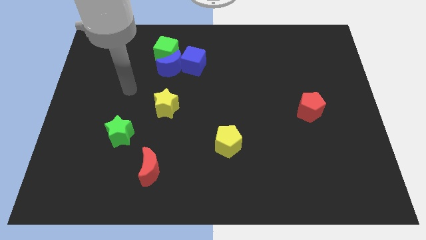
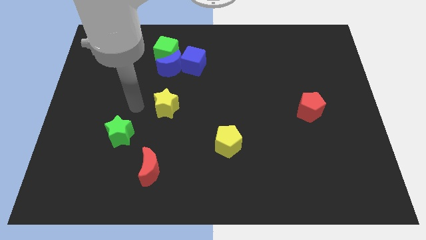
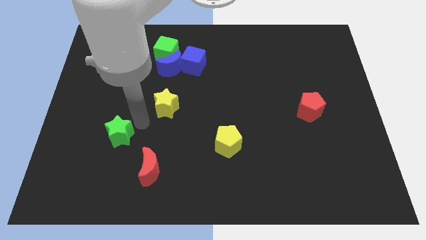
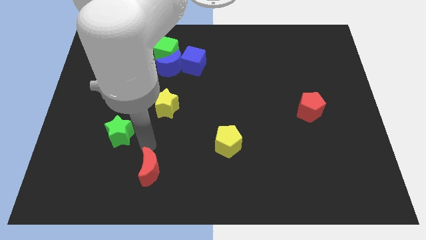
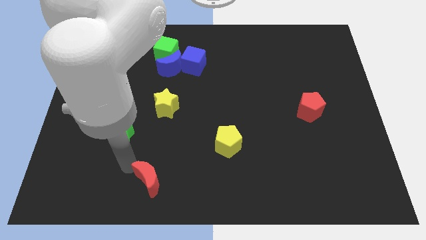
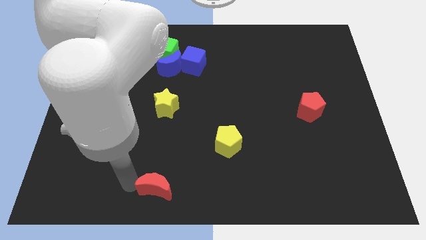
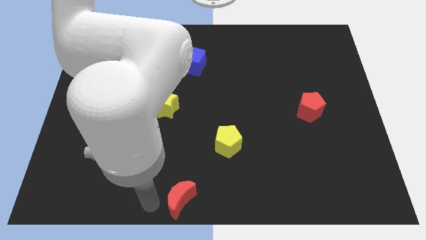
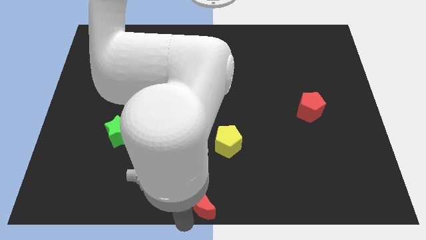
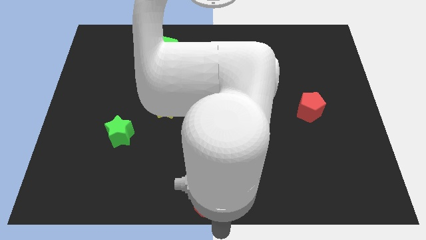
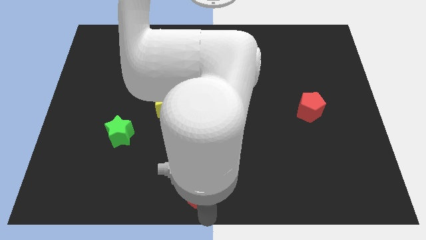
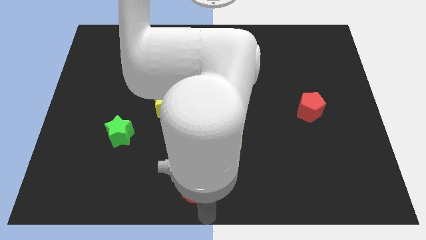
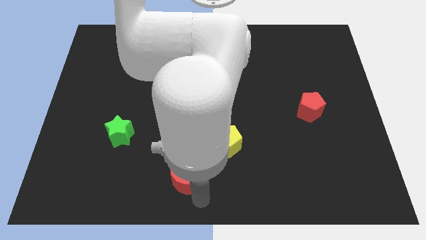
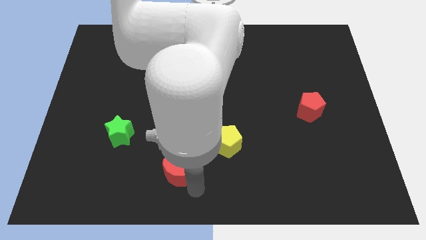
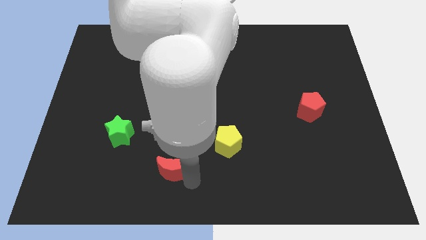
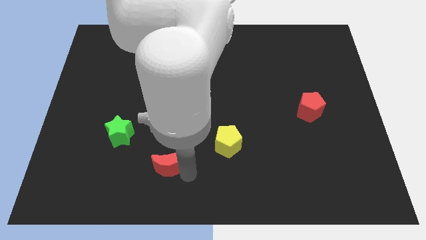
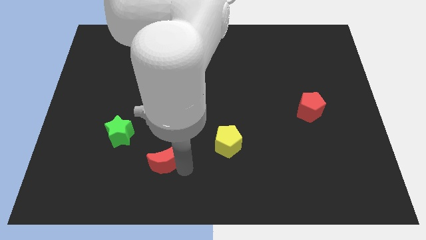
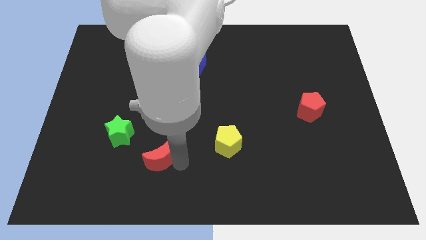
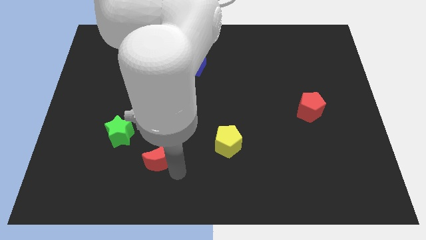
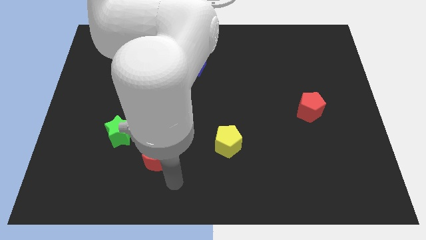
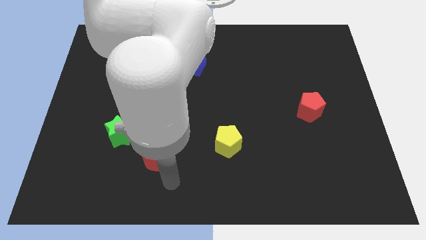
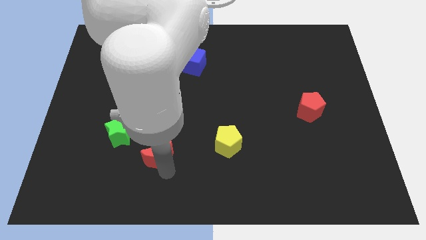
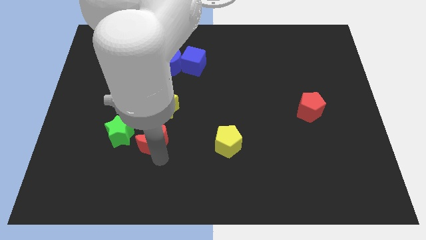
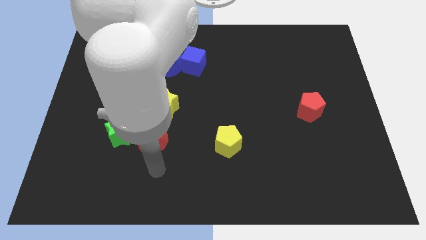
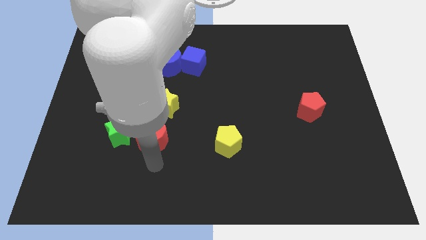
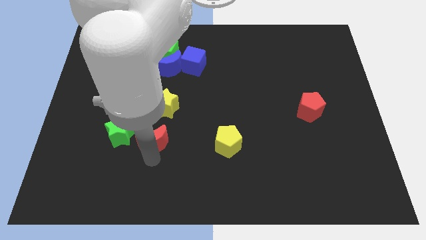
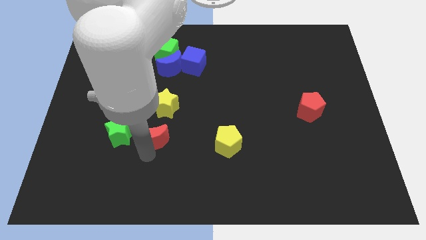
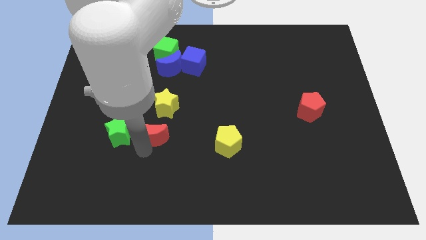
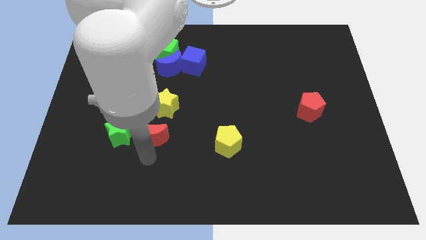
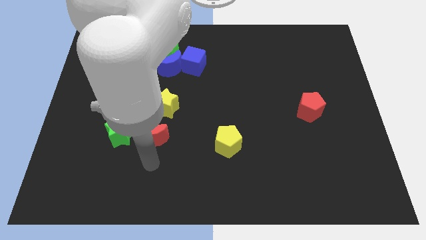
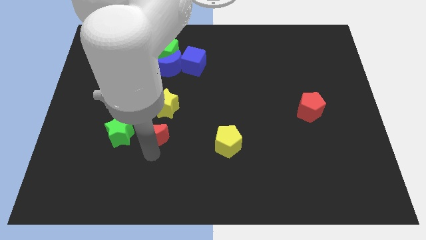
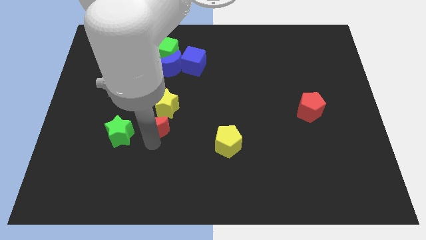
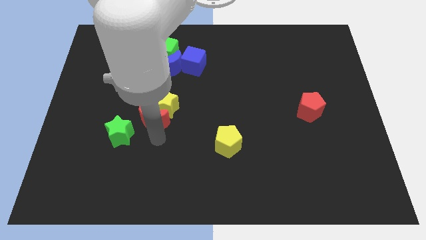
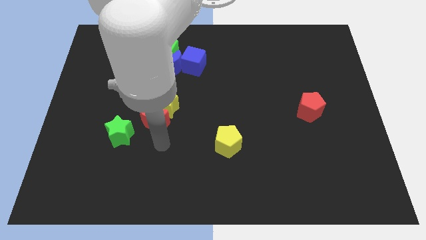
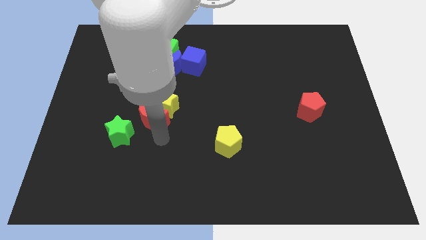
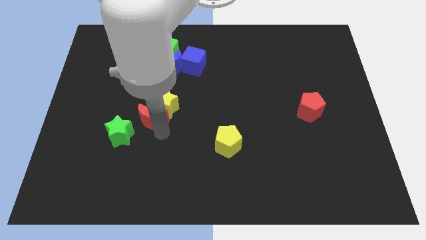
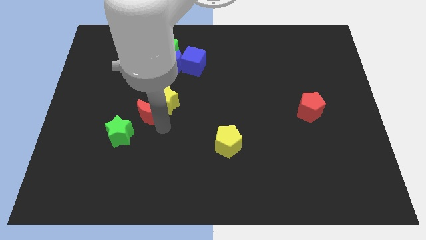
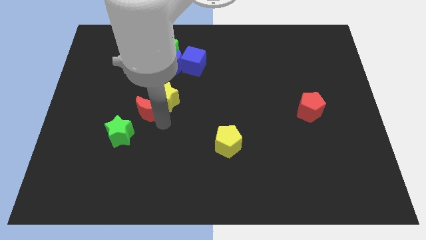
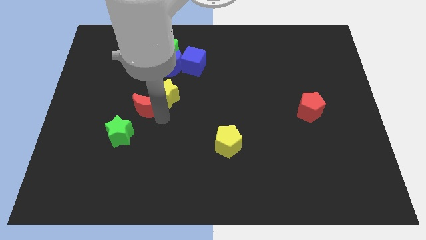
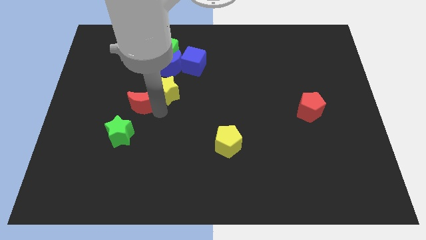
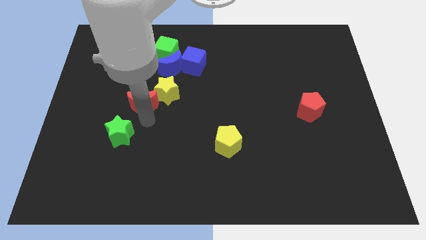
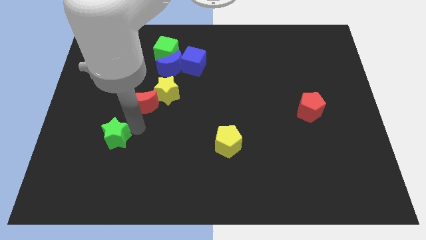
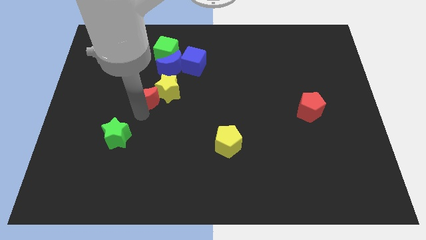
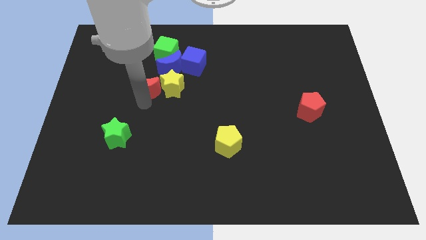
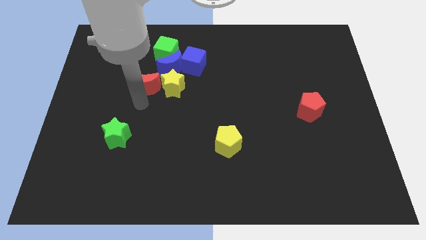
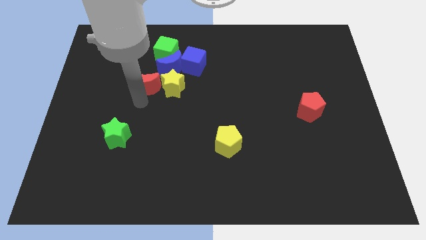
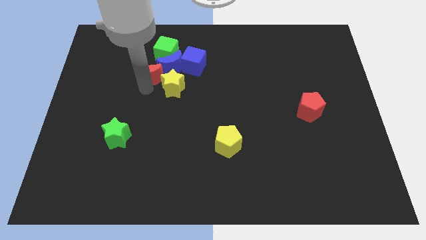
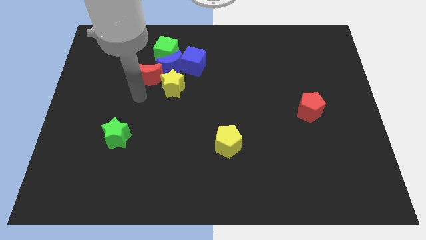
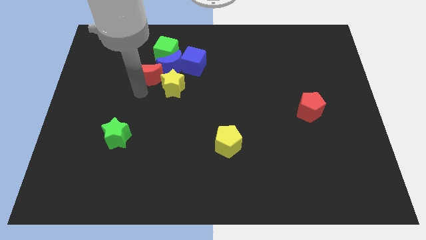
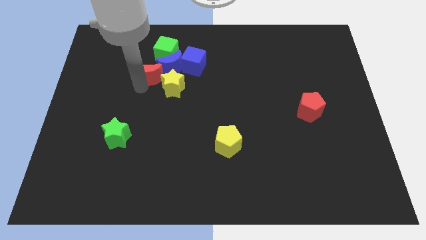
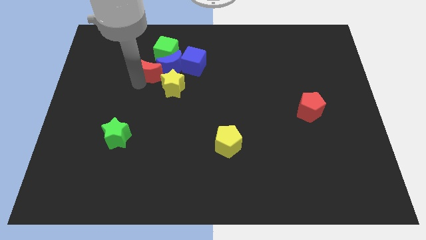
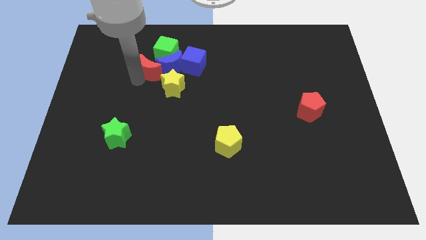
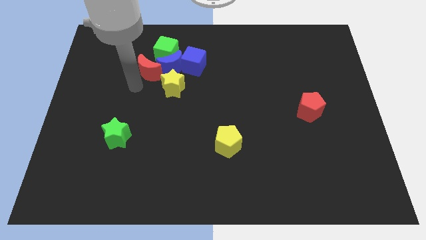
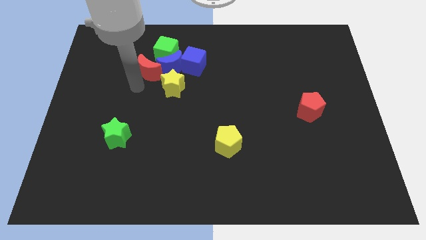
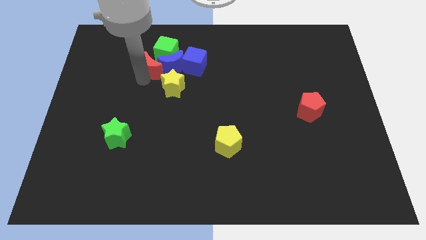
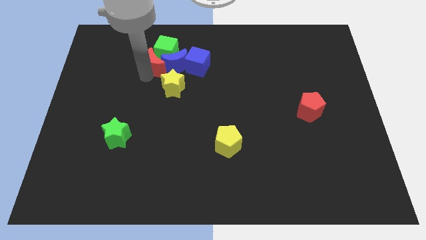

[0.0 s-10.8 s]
push the red moon next to the green cube

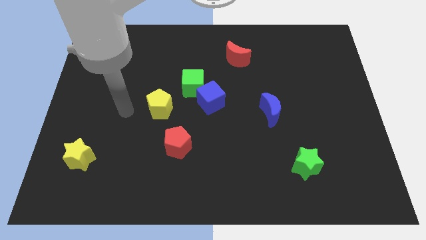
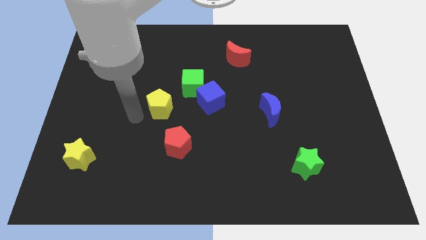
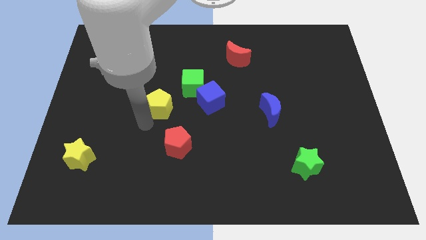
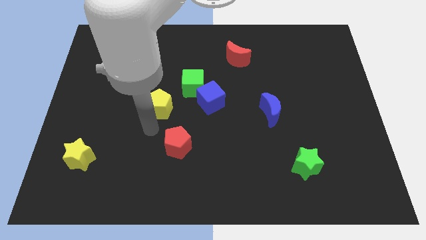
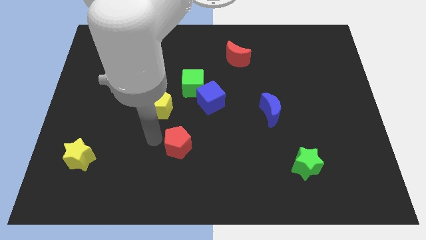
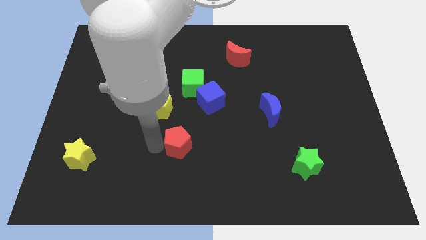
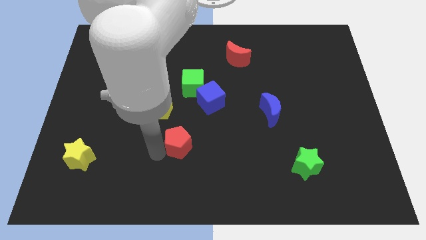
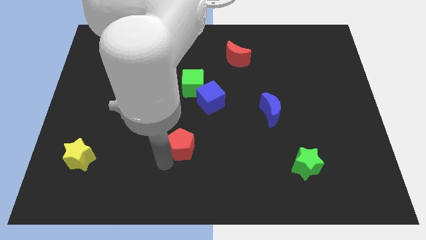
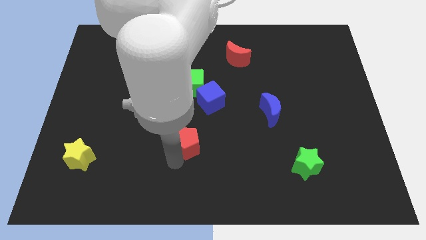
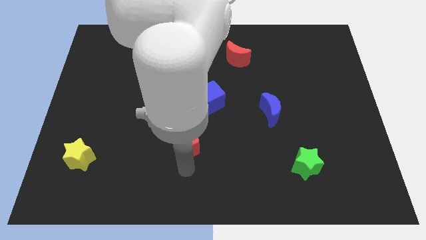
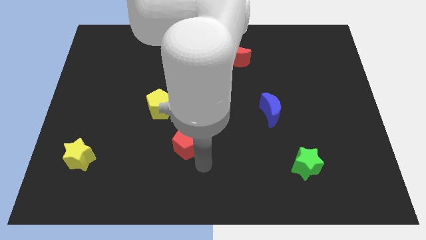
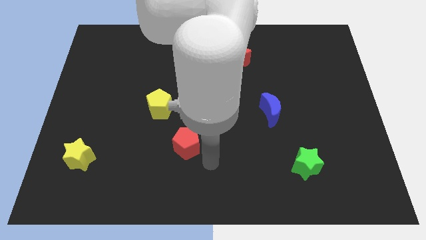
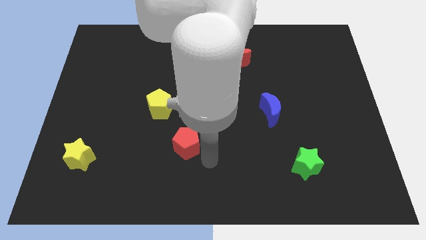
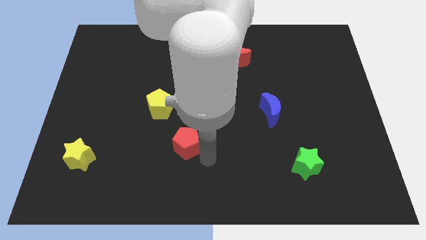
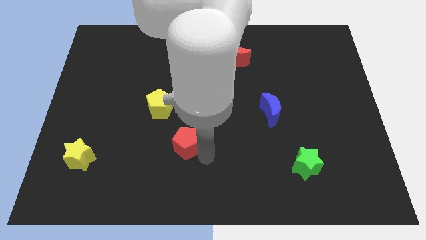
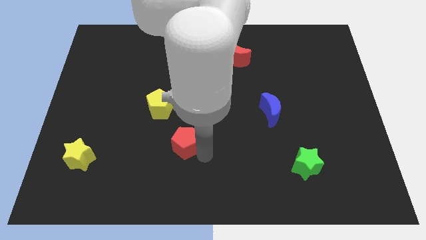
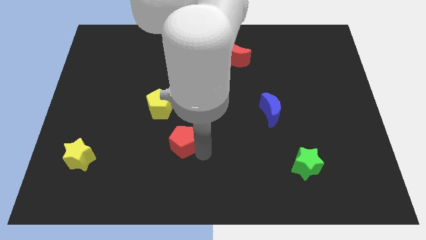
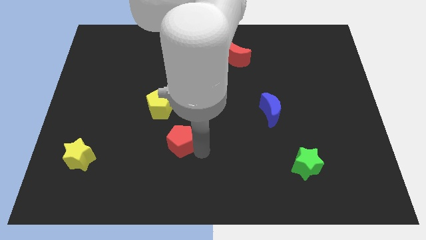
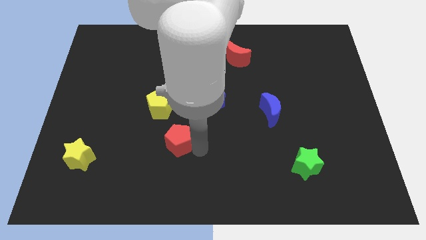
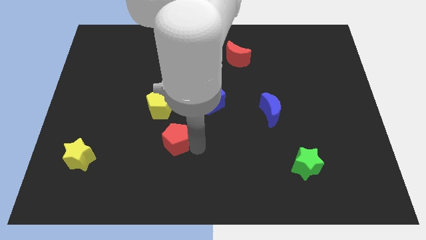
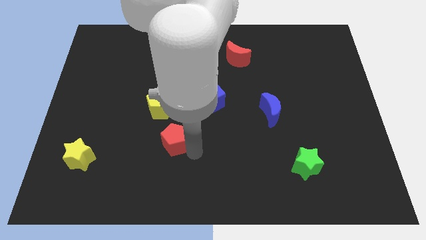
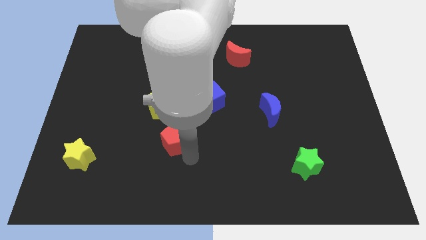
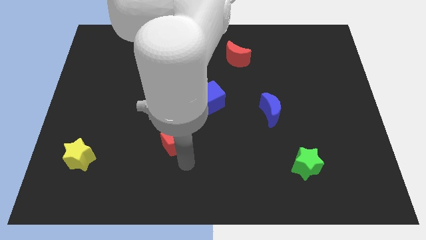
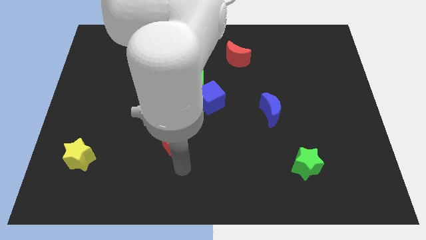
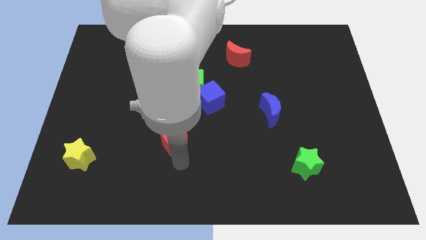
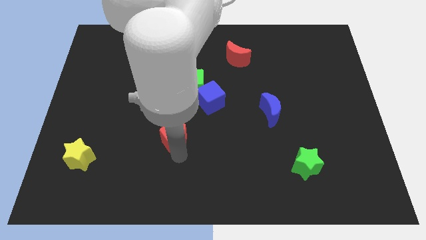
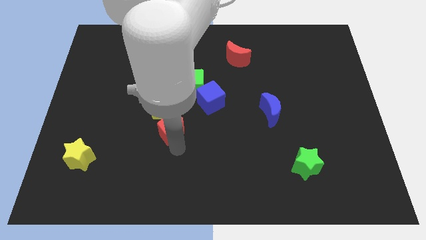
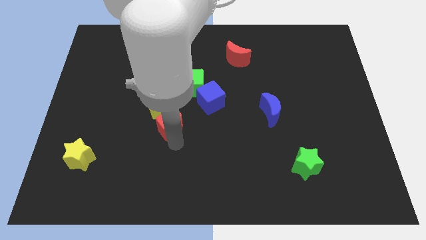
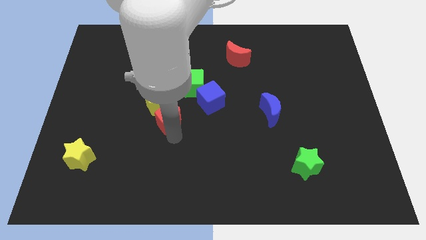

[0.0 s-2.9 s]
put the red pentagon to the yellow pentagon
